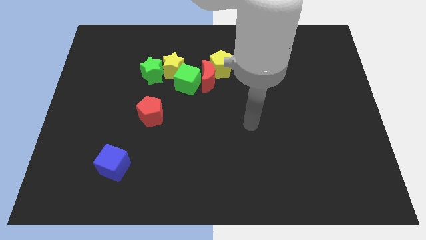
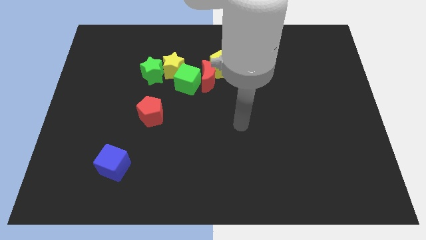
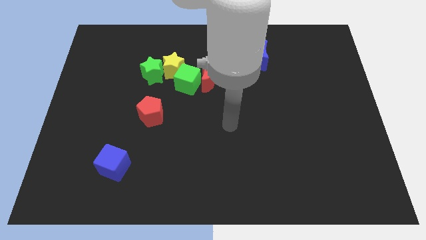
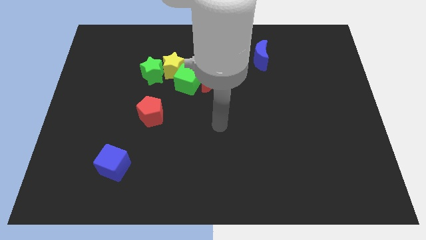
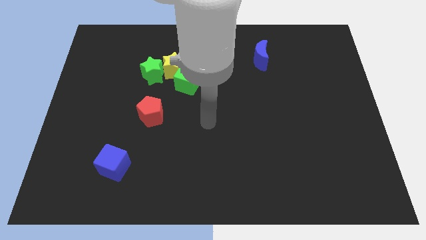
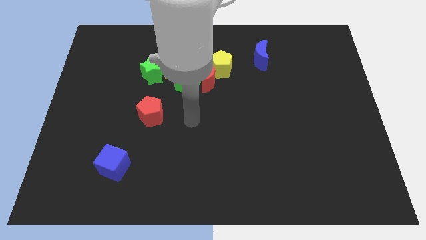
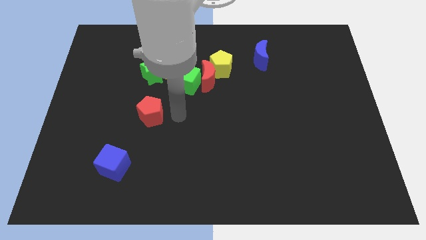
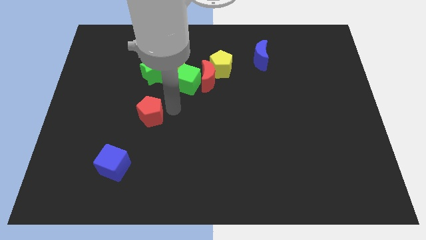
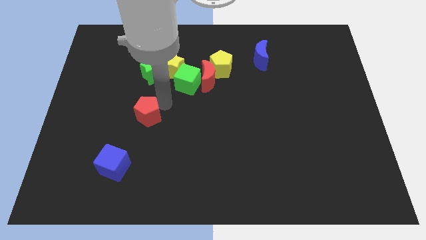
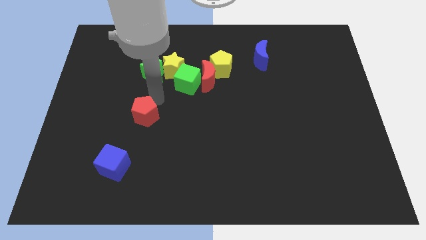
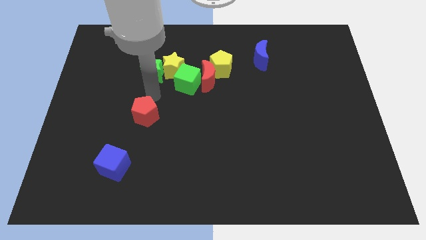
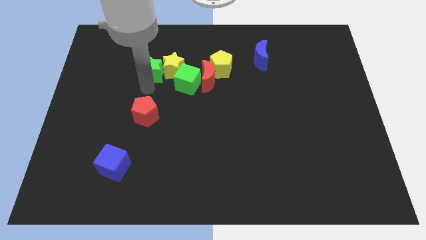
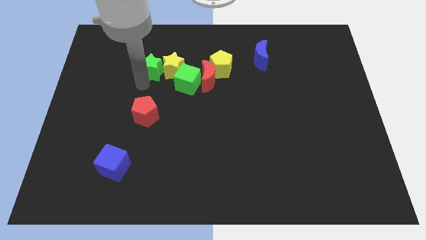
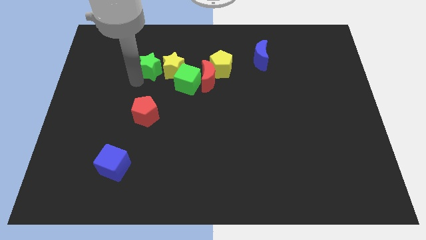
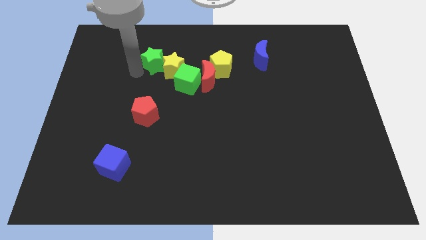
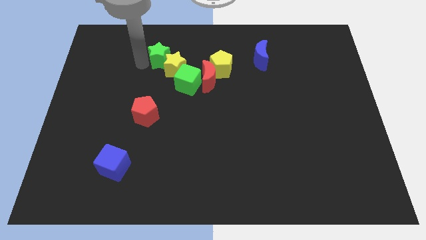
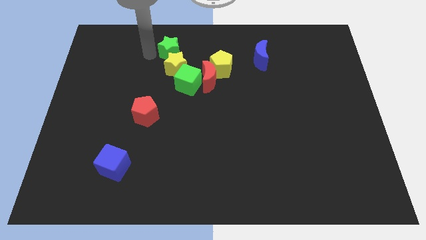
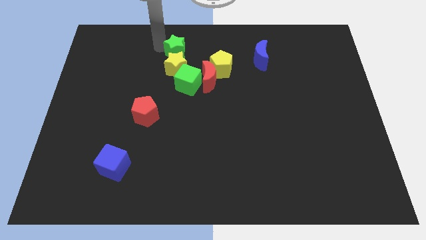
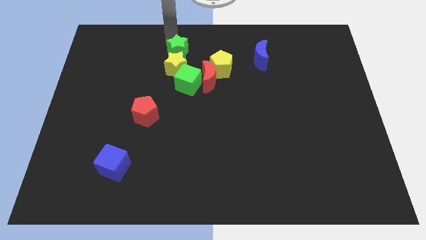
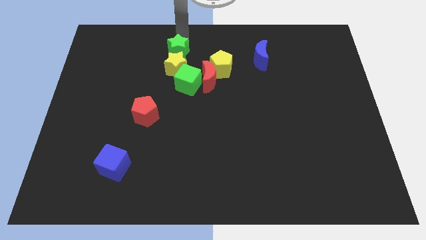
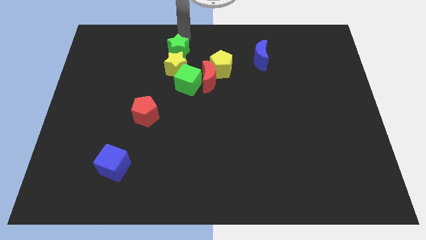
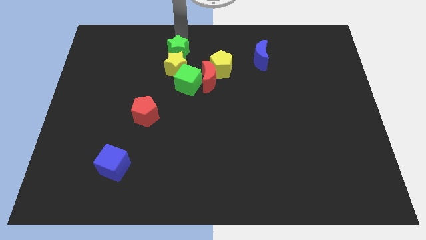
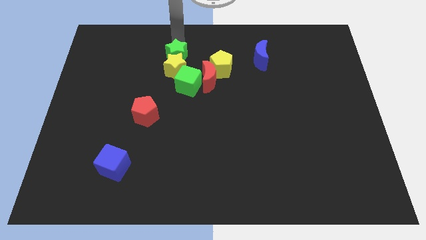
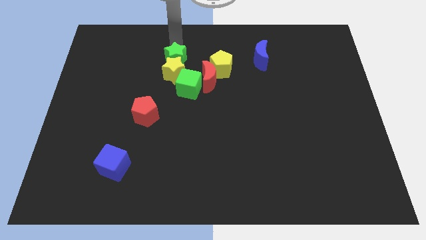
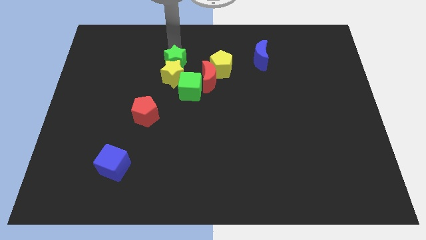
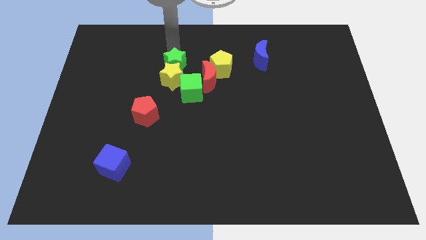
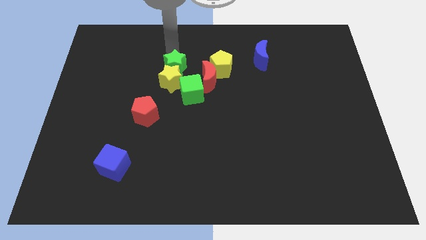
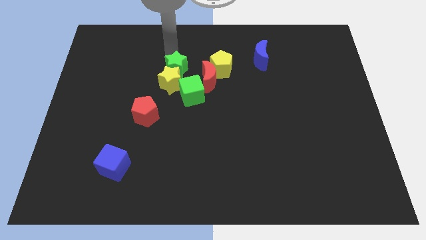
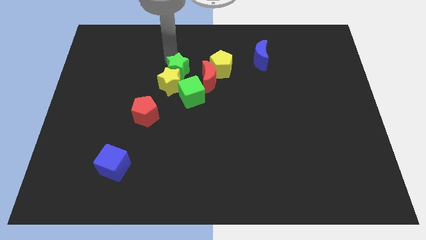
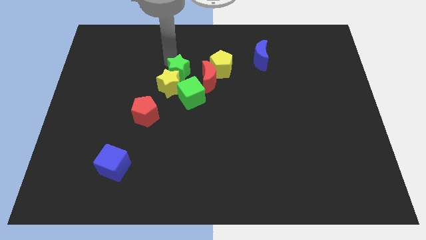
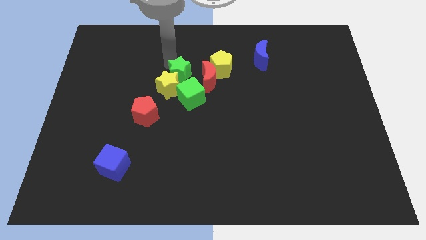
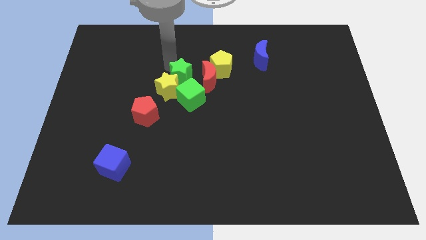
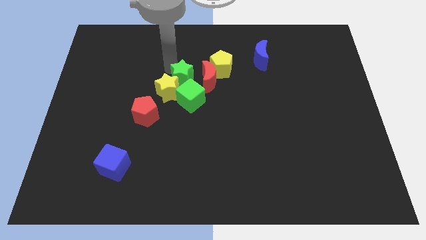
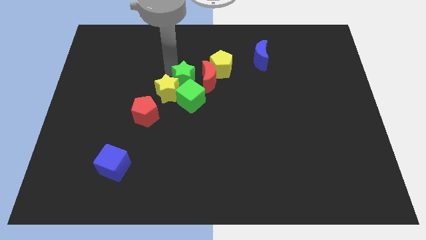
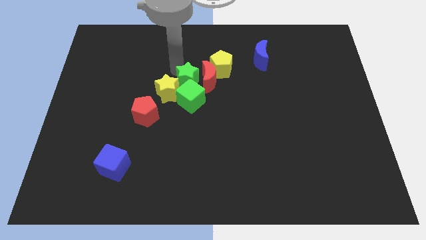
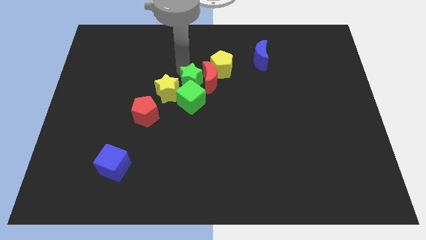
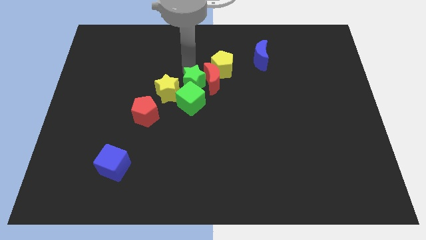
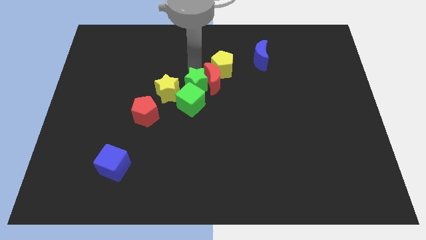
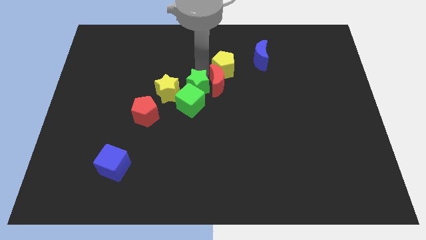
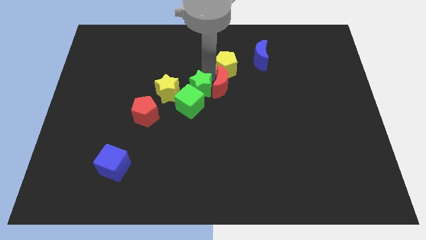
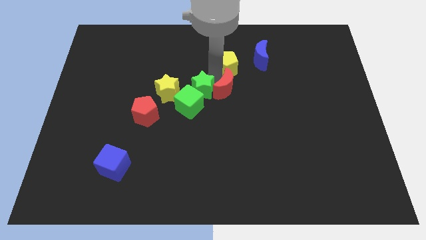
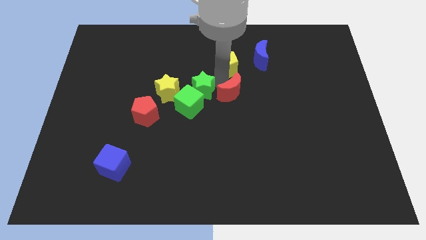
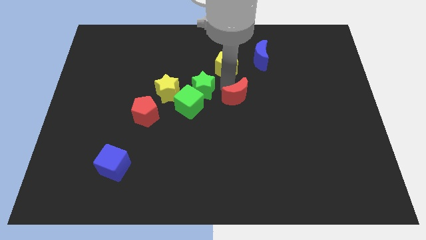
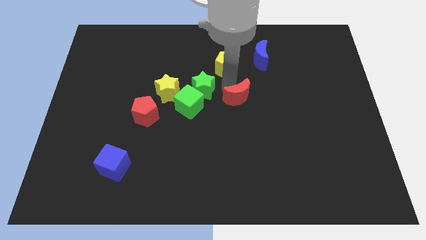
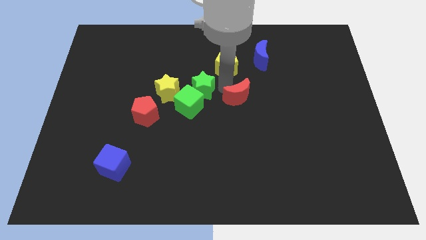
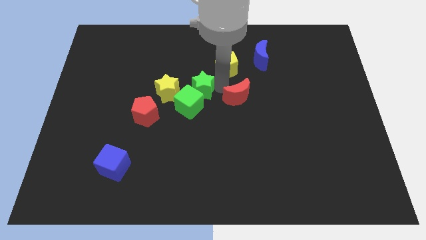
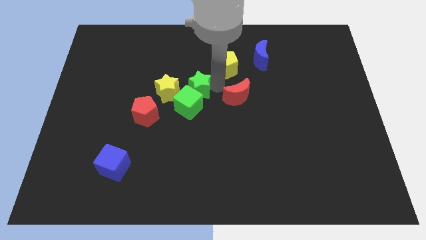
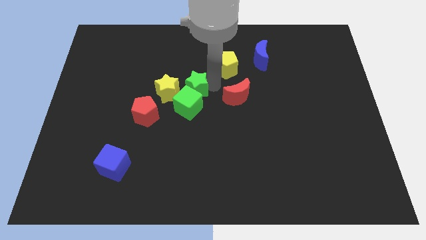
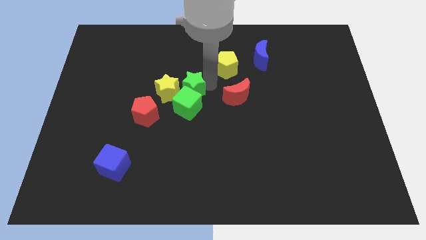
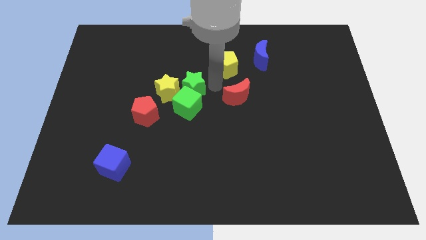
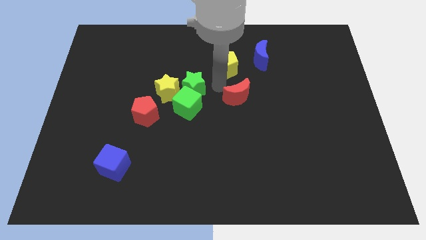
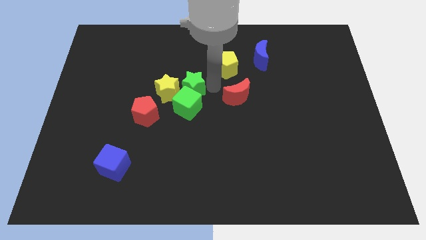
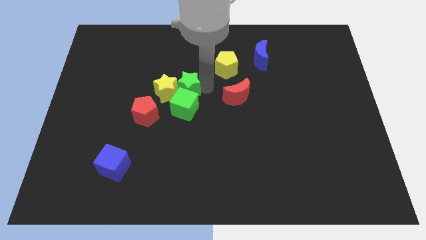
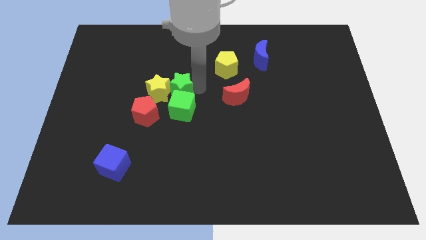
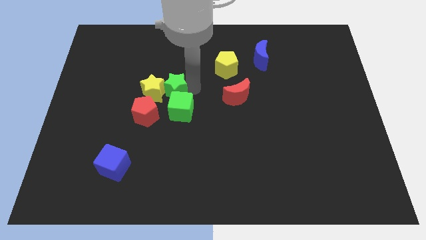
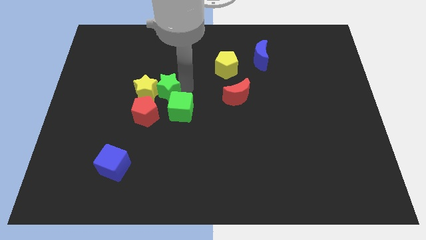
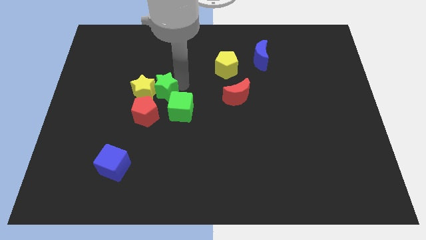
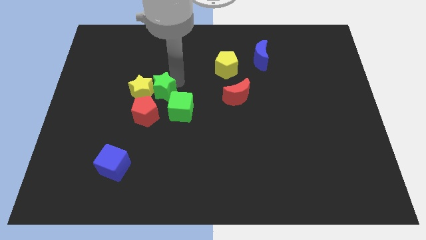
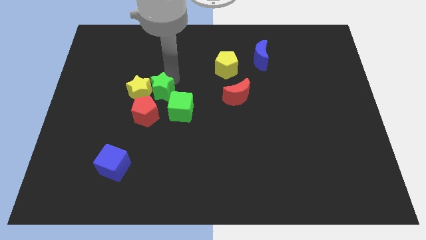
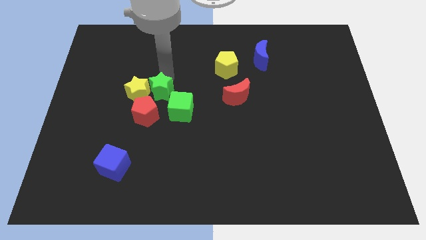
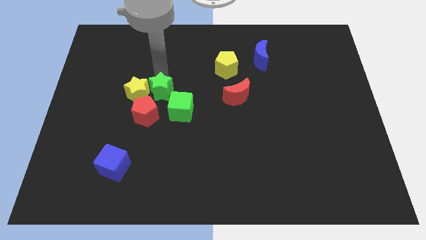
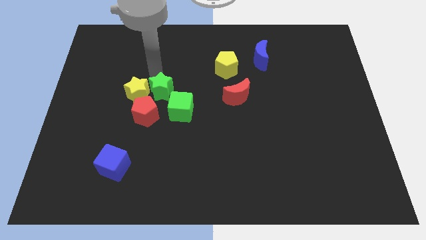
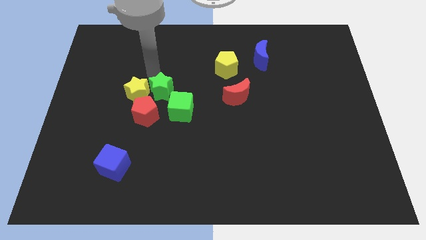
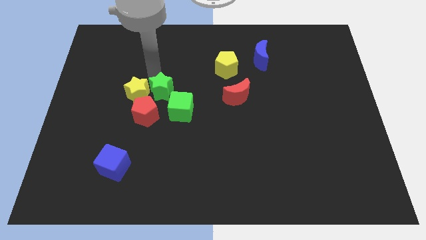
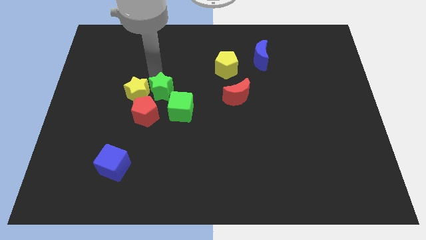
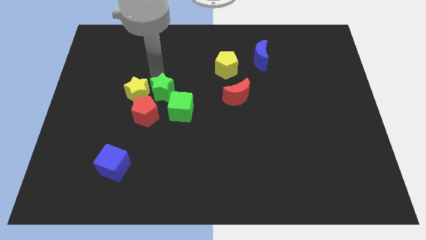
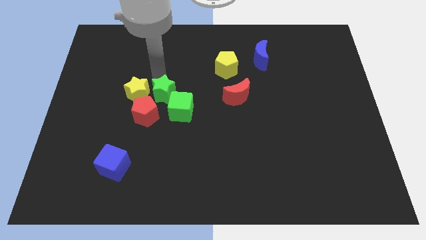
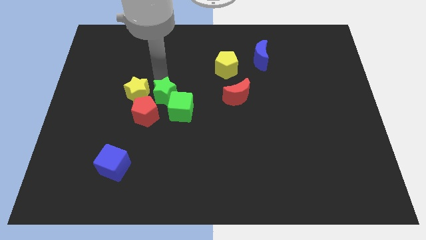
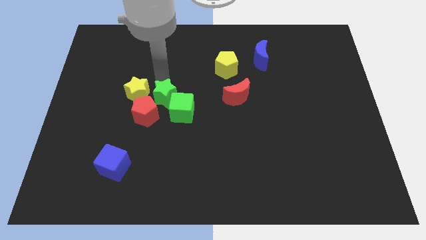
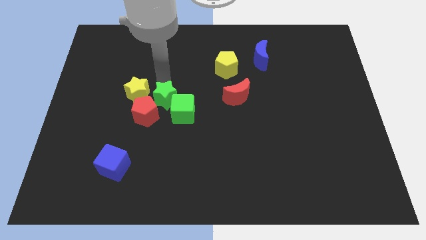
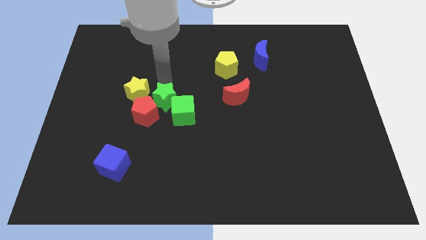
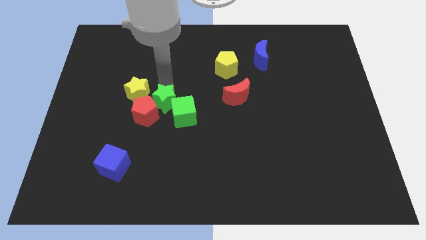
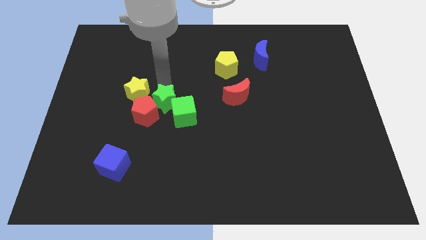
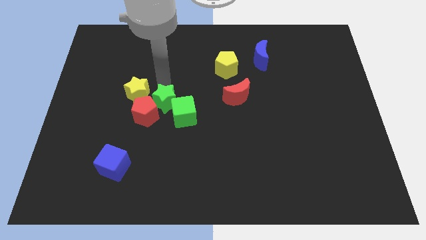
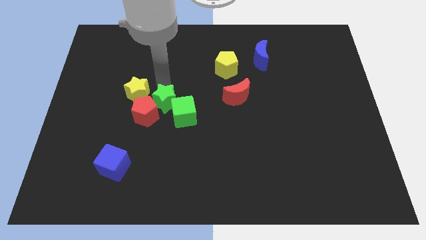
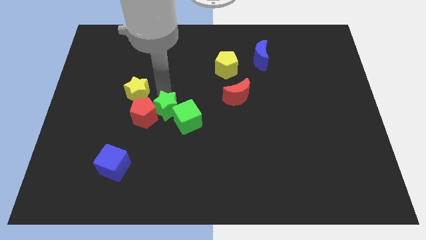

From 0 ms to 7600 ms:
slide the green star to the bottom right side of the red pentagon
